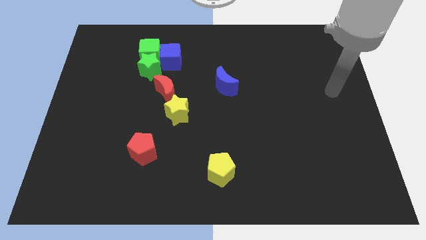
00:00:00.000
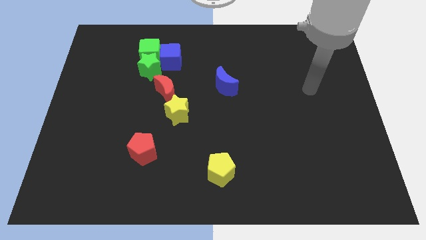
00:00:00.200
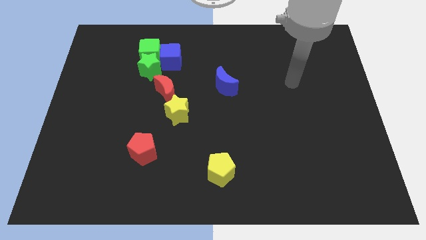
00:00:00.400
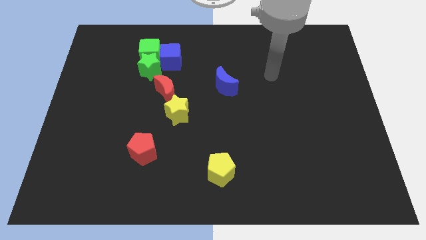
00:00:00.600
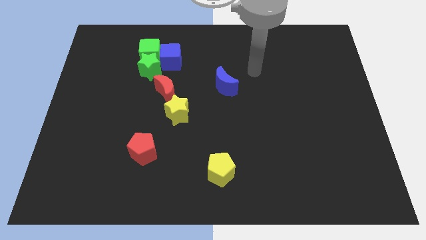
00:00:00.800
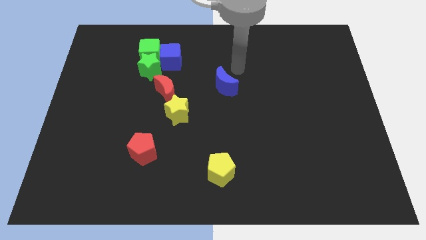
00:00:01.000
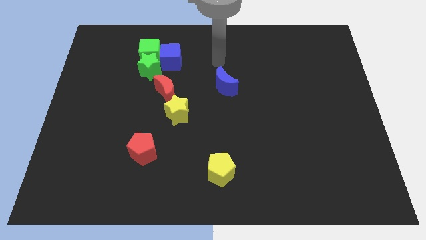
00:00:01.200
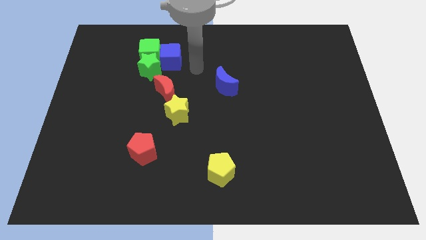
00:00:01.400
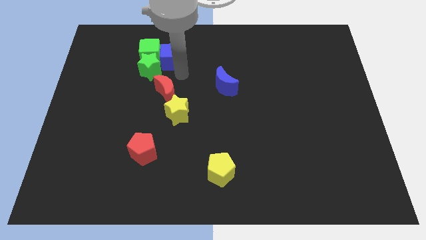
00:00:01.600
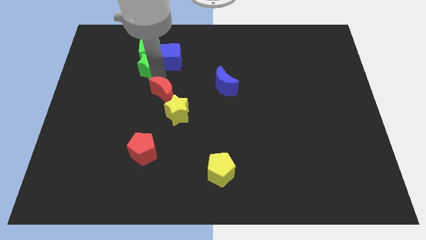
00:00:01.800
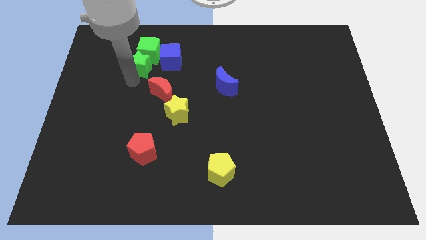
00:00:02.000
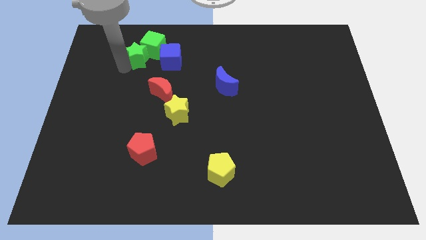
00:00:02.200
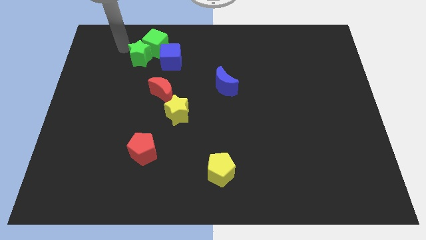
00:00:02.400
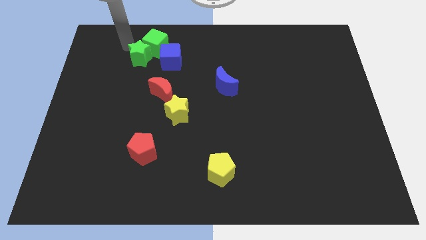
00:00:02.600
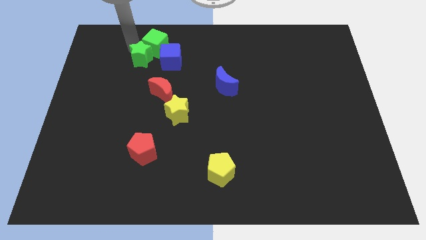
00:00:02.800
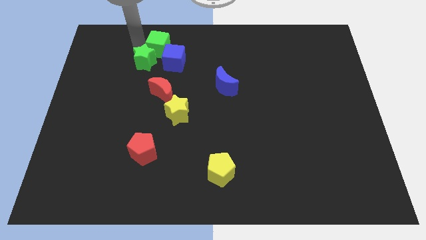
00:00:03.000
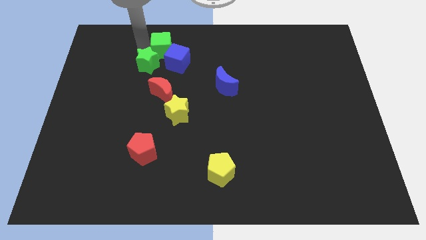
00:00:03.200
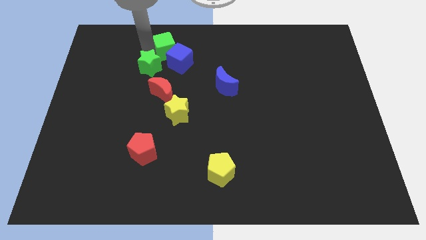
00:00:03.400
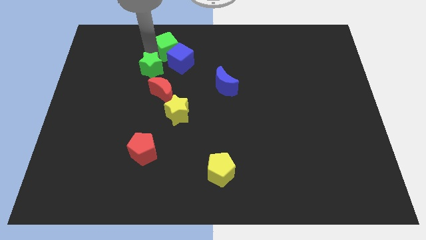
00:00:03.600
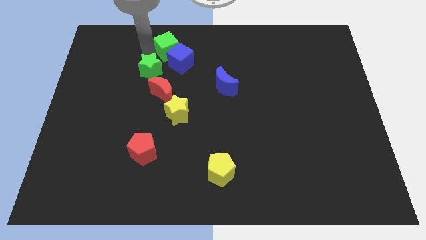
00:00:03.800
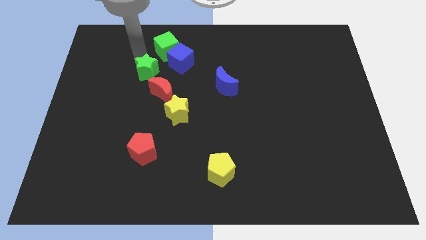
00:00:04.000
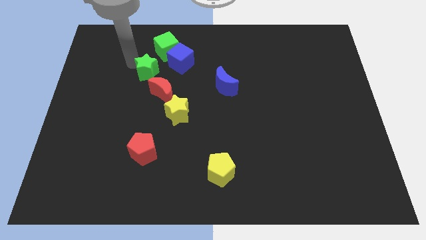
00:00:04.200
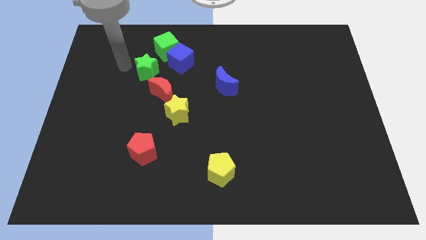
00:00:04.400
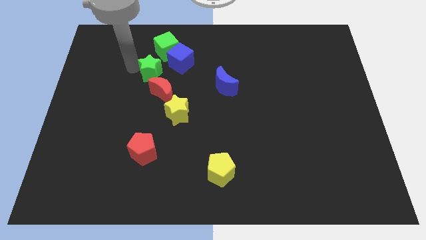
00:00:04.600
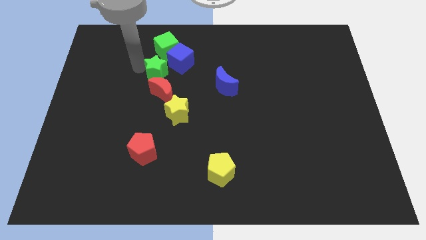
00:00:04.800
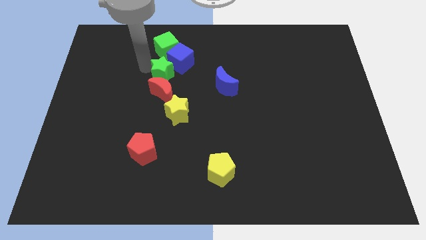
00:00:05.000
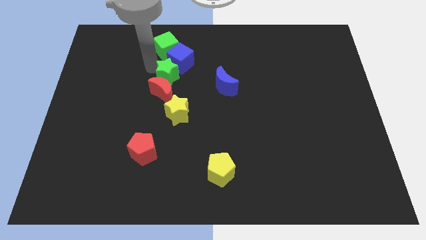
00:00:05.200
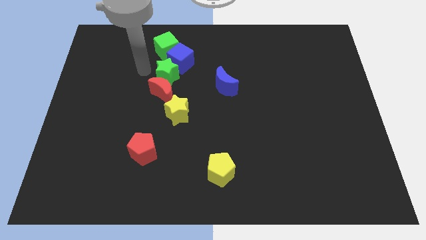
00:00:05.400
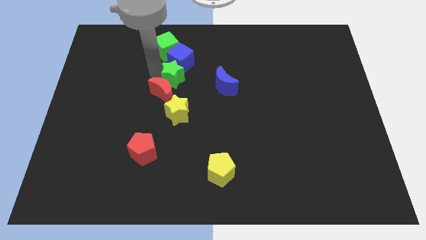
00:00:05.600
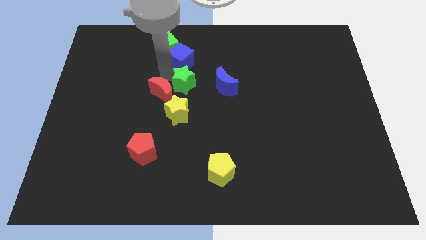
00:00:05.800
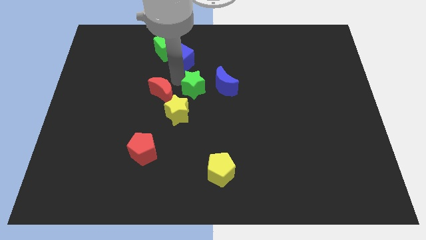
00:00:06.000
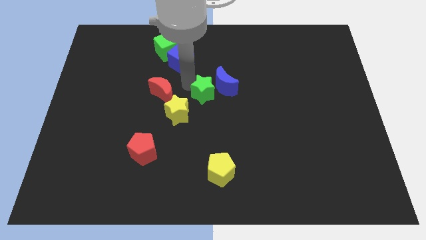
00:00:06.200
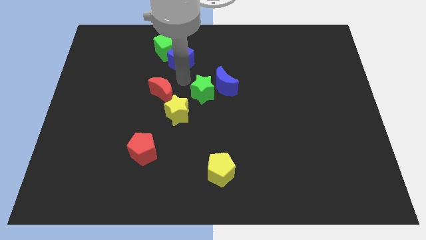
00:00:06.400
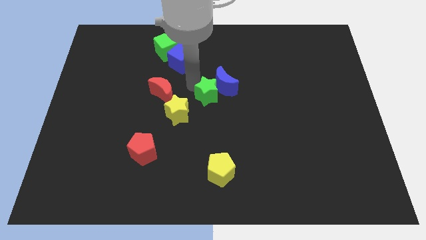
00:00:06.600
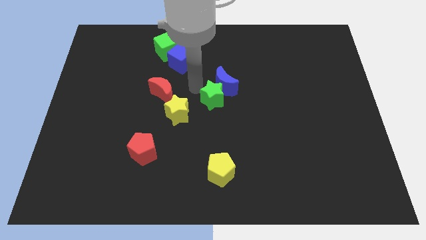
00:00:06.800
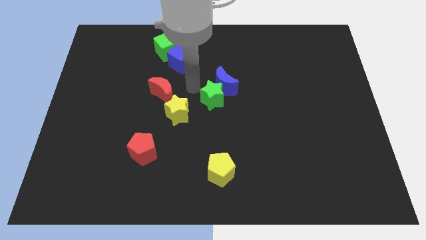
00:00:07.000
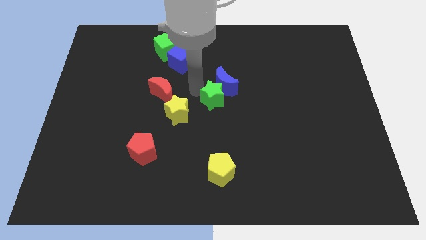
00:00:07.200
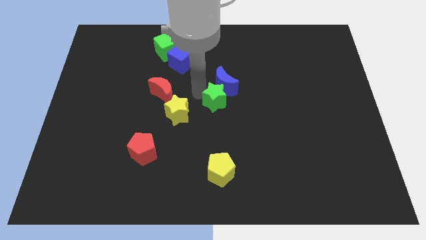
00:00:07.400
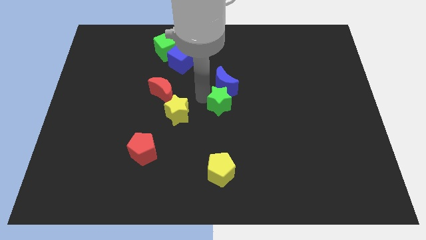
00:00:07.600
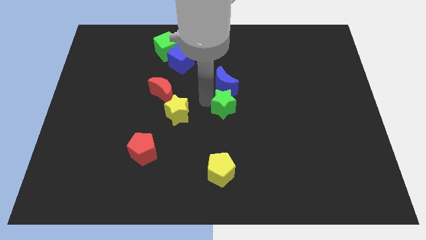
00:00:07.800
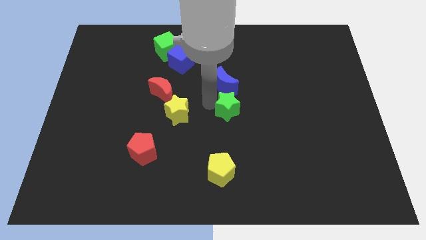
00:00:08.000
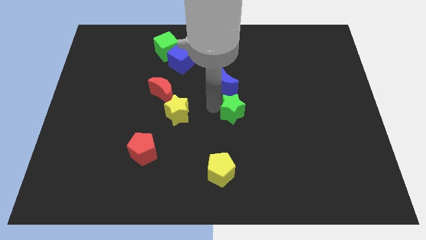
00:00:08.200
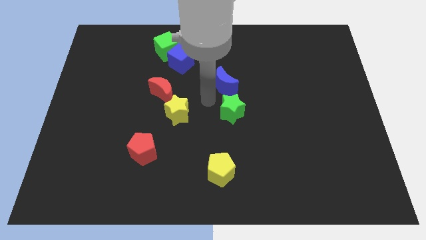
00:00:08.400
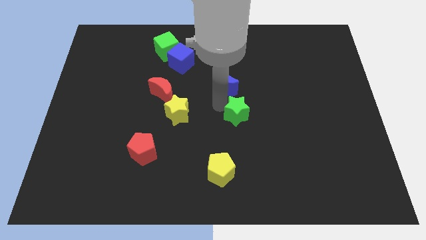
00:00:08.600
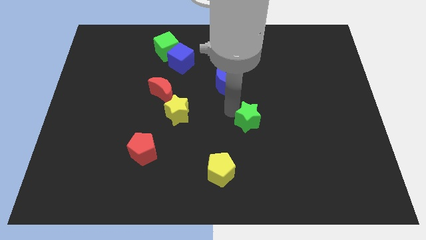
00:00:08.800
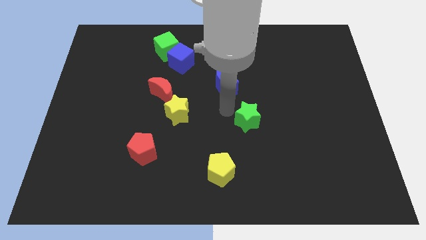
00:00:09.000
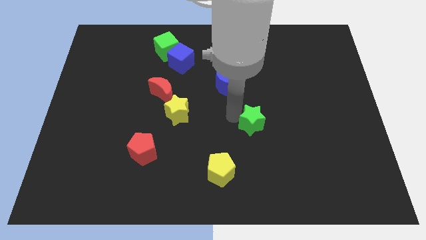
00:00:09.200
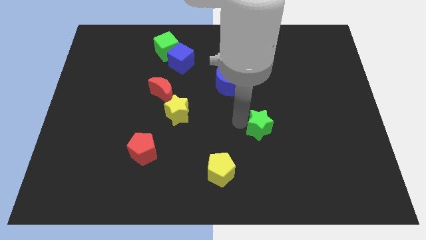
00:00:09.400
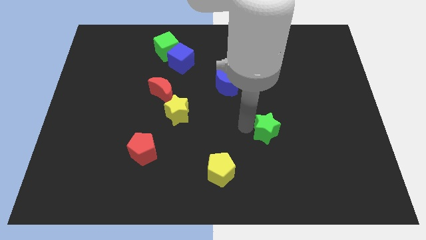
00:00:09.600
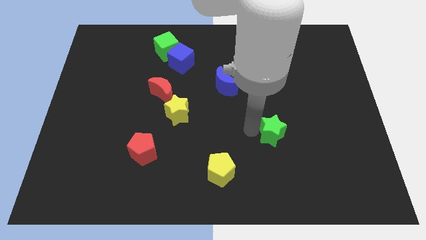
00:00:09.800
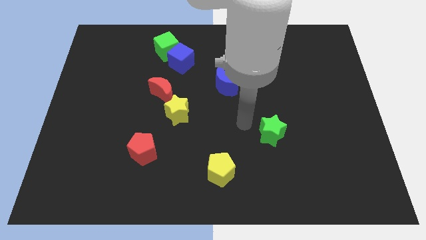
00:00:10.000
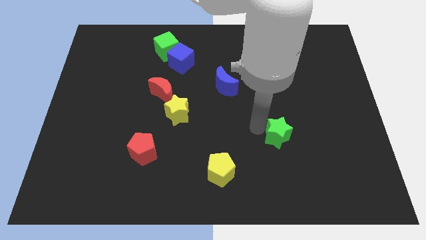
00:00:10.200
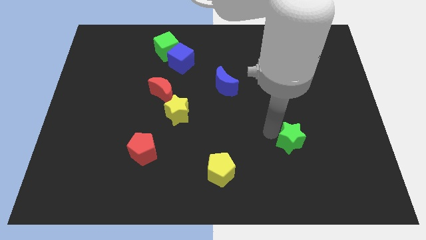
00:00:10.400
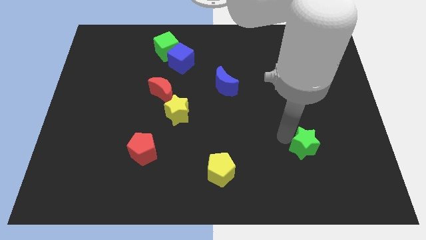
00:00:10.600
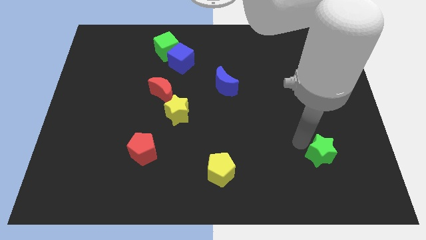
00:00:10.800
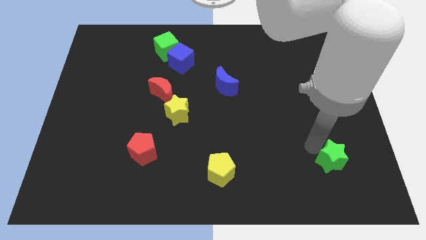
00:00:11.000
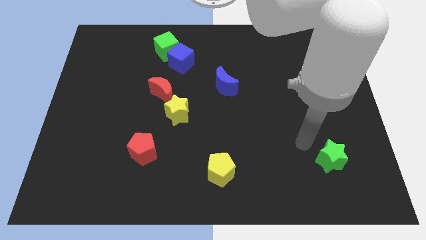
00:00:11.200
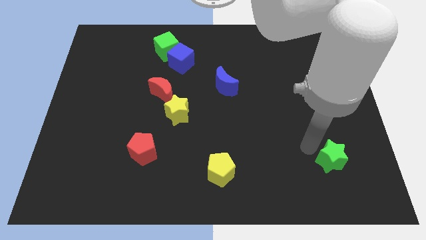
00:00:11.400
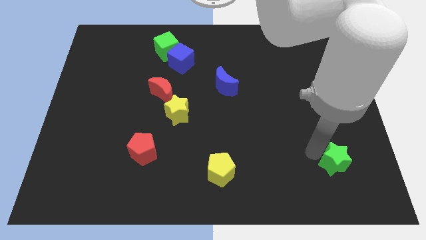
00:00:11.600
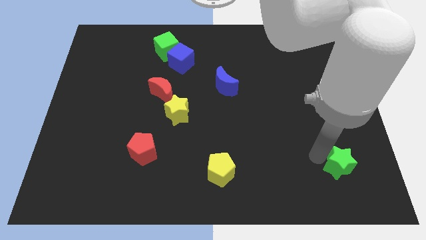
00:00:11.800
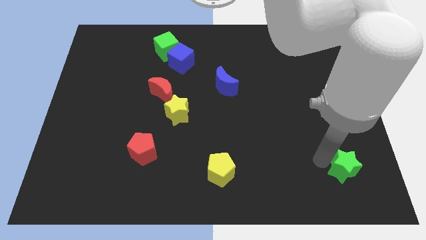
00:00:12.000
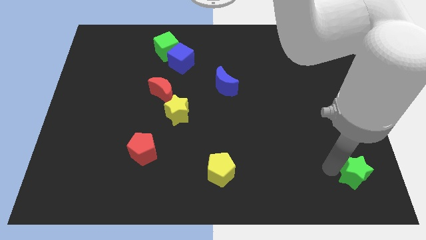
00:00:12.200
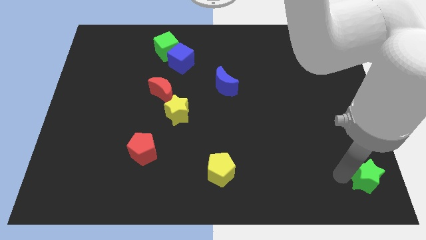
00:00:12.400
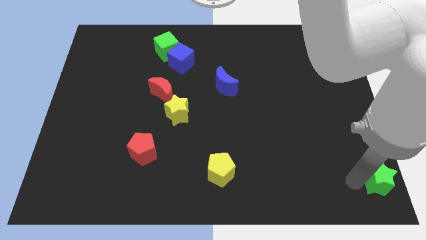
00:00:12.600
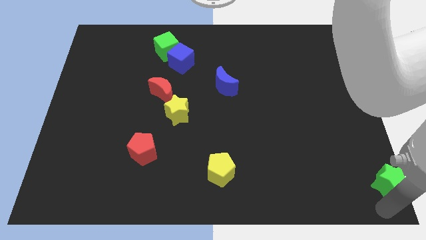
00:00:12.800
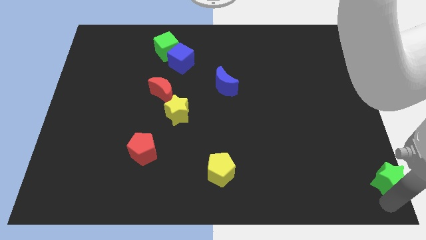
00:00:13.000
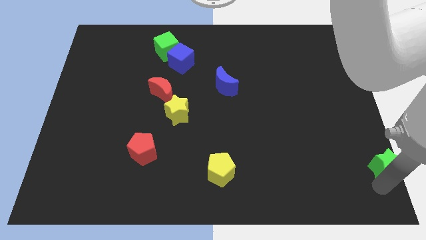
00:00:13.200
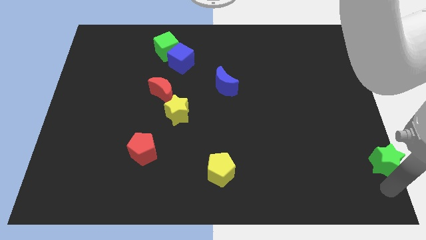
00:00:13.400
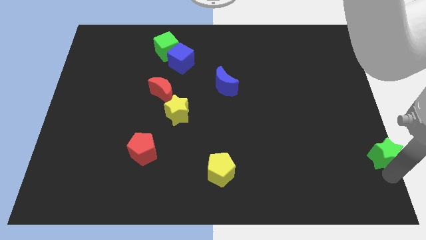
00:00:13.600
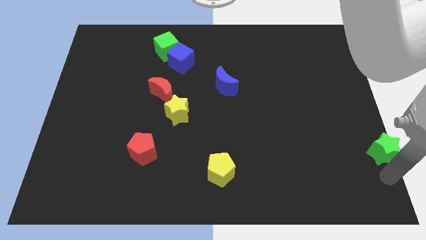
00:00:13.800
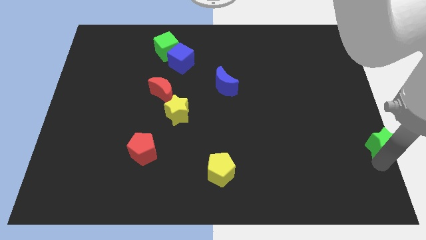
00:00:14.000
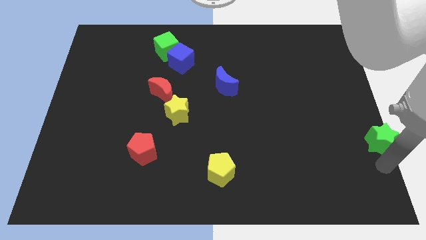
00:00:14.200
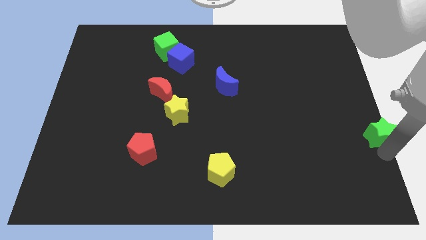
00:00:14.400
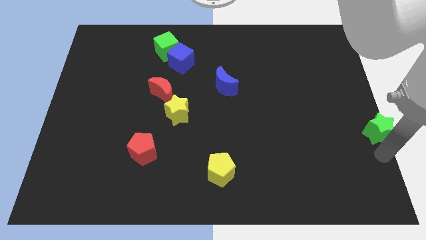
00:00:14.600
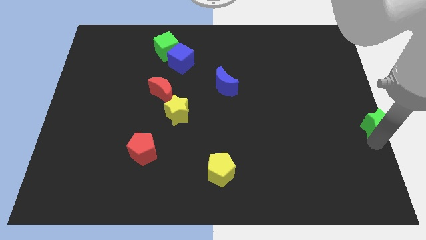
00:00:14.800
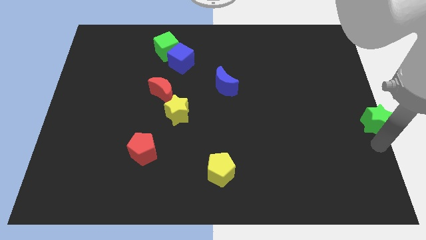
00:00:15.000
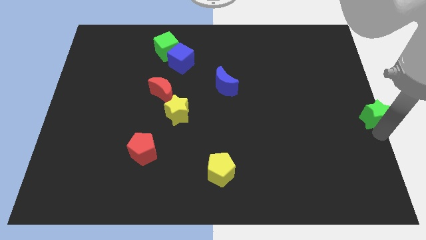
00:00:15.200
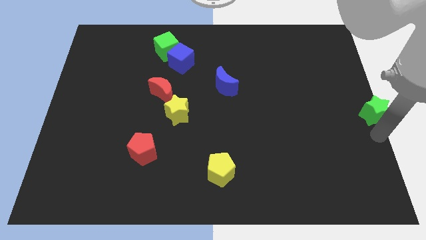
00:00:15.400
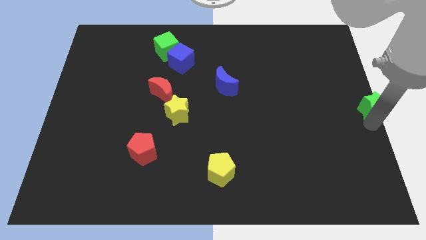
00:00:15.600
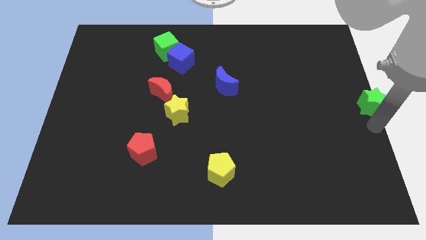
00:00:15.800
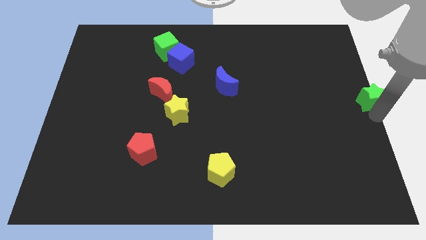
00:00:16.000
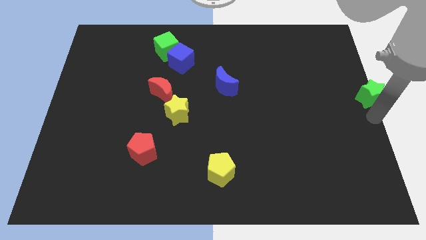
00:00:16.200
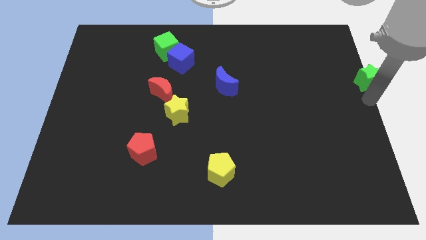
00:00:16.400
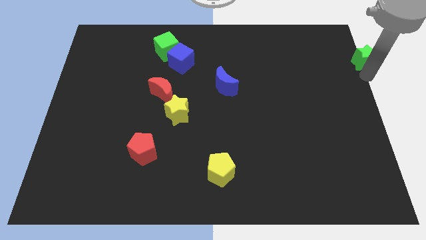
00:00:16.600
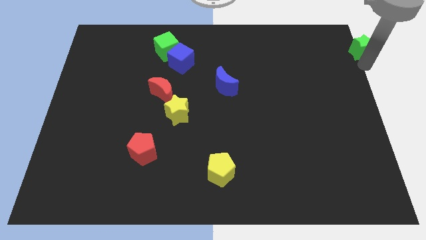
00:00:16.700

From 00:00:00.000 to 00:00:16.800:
slide the green star to the upper right corner
